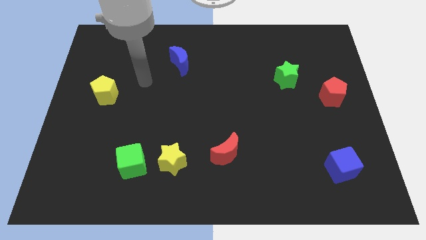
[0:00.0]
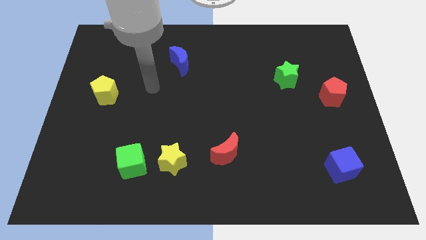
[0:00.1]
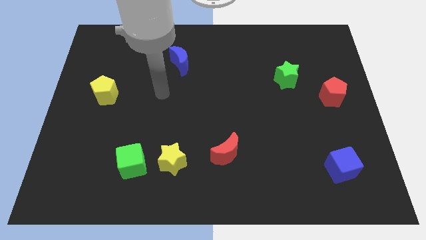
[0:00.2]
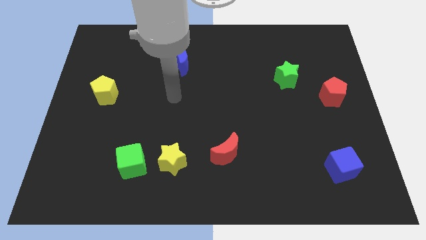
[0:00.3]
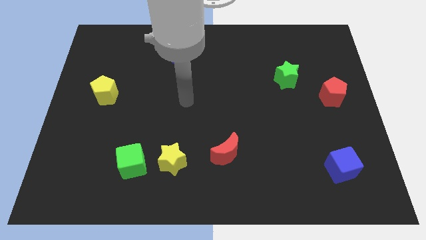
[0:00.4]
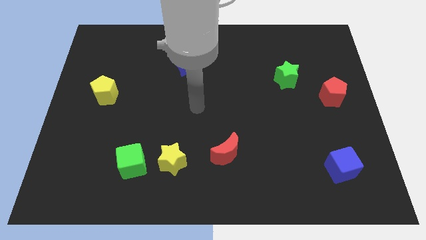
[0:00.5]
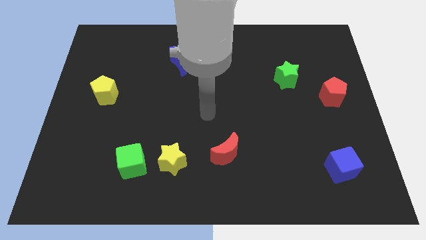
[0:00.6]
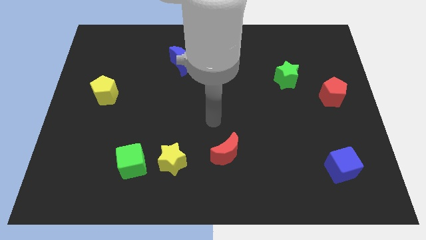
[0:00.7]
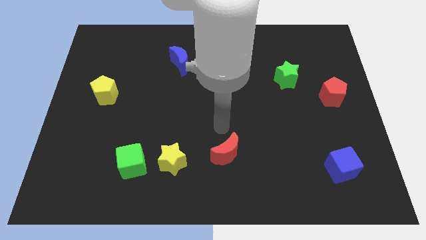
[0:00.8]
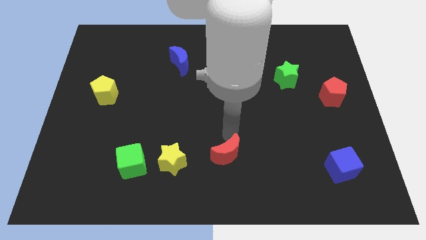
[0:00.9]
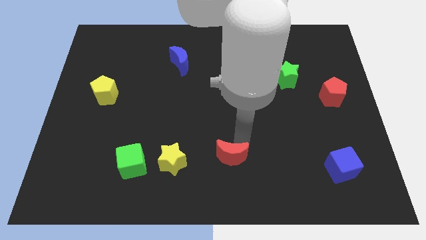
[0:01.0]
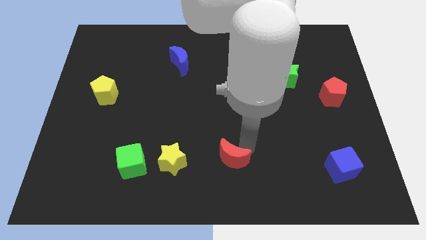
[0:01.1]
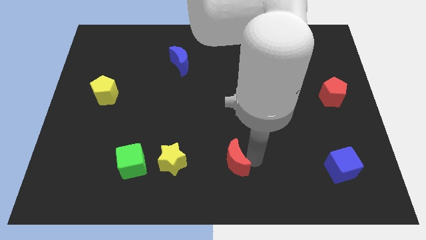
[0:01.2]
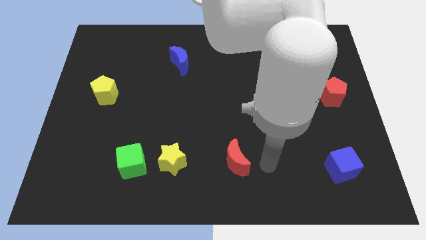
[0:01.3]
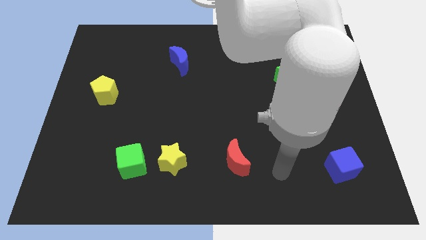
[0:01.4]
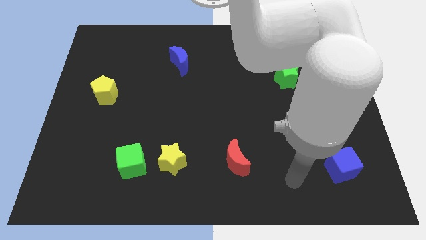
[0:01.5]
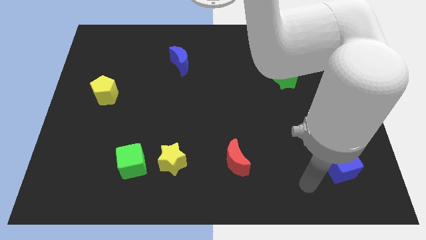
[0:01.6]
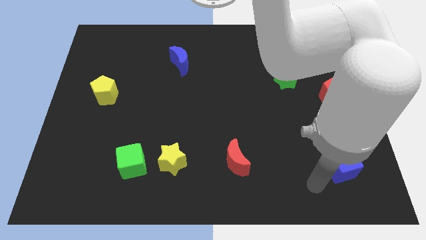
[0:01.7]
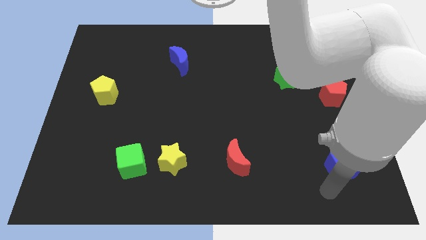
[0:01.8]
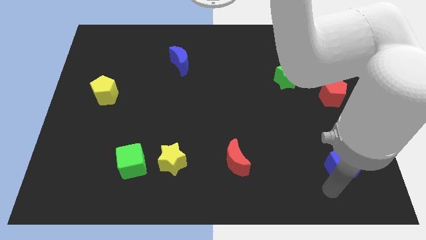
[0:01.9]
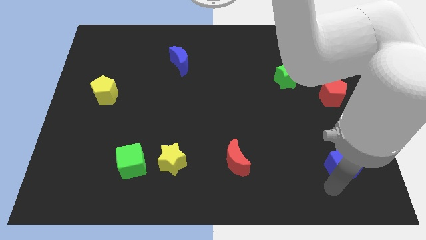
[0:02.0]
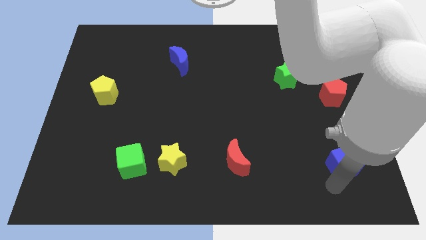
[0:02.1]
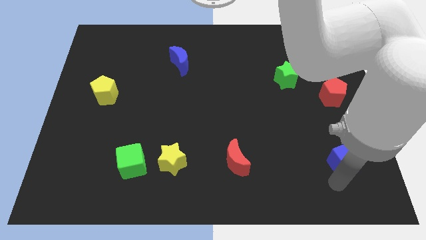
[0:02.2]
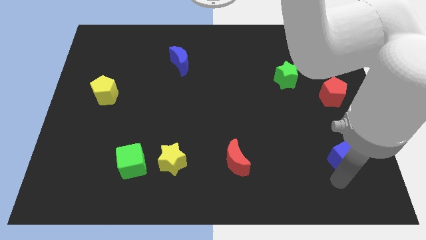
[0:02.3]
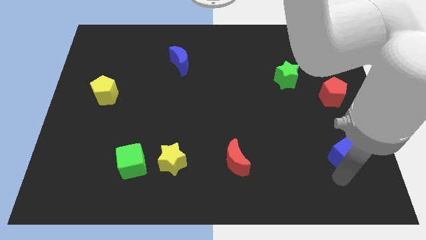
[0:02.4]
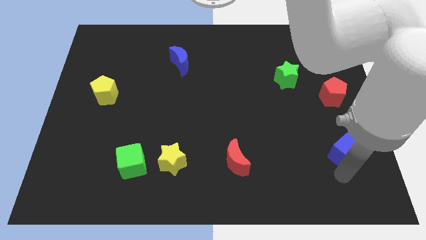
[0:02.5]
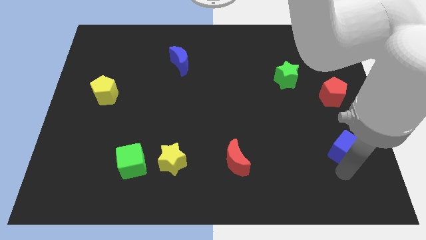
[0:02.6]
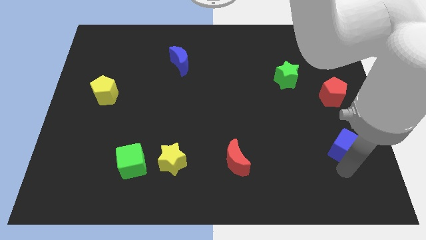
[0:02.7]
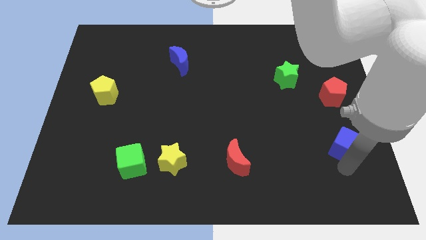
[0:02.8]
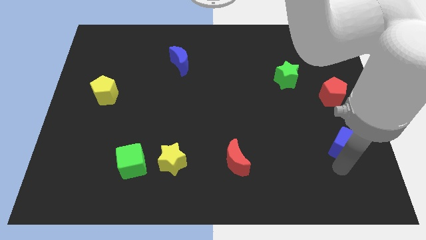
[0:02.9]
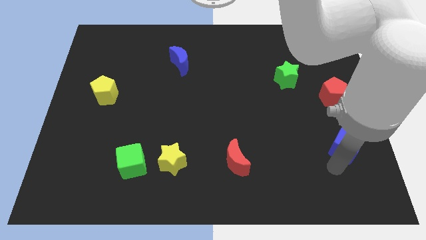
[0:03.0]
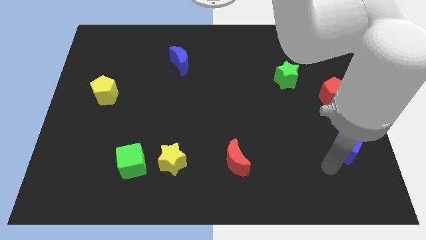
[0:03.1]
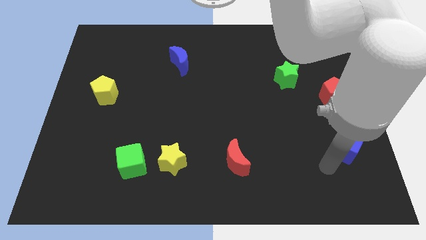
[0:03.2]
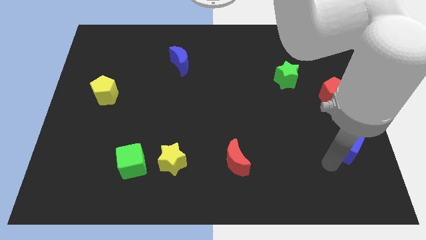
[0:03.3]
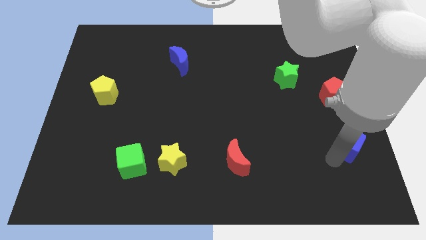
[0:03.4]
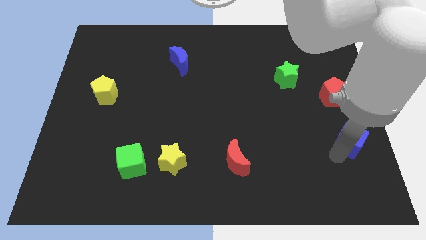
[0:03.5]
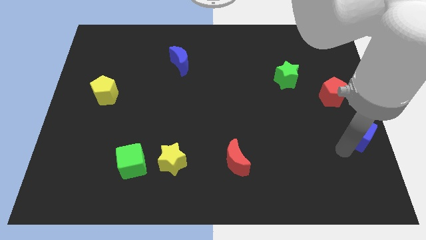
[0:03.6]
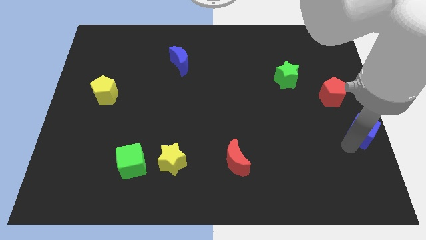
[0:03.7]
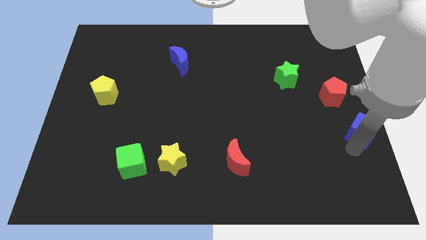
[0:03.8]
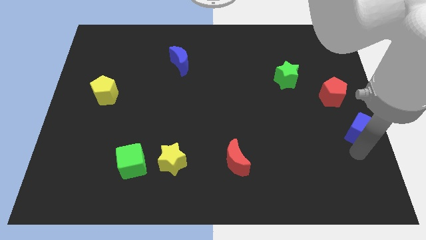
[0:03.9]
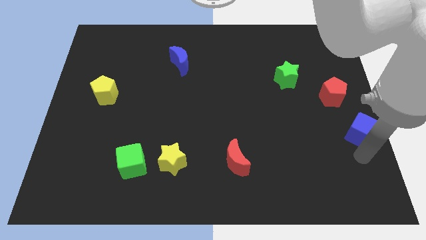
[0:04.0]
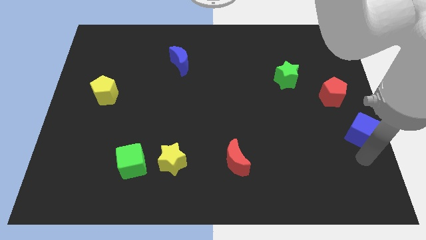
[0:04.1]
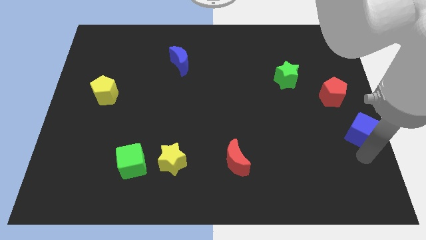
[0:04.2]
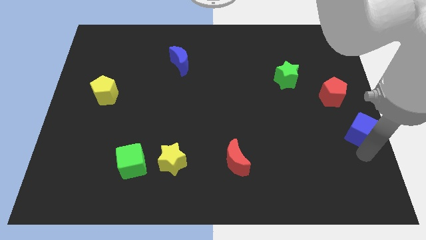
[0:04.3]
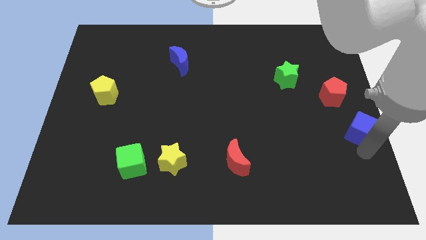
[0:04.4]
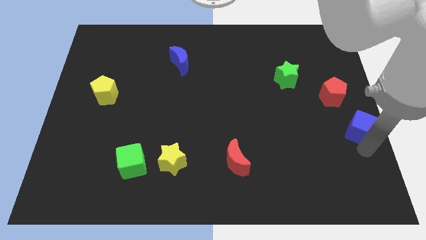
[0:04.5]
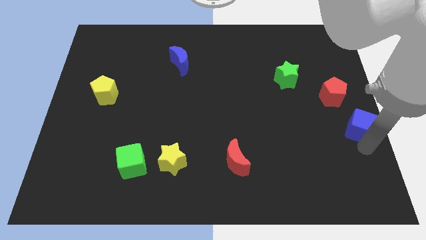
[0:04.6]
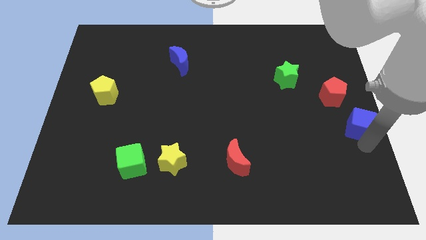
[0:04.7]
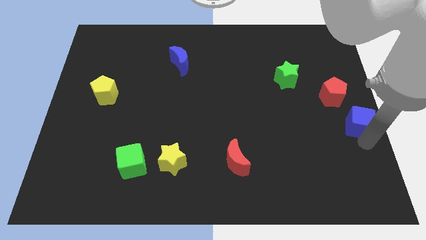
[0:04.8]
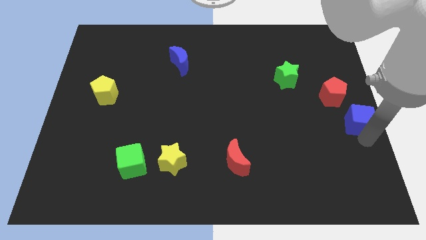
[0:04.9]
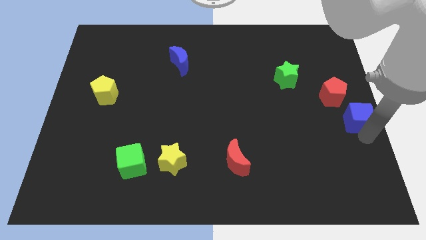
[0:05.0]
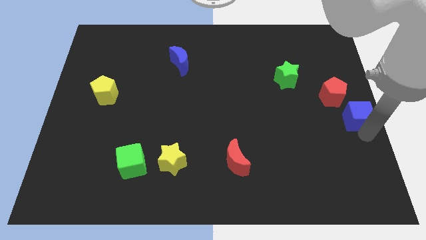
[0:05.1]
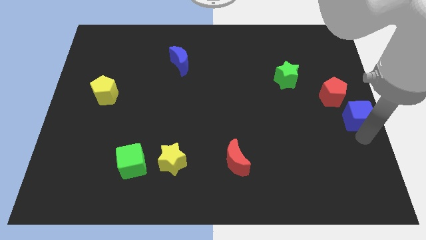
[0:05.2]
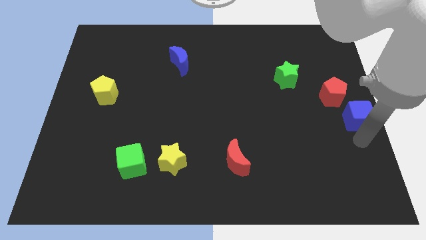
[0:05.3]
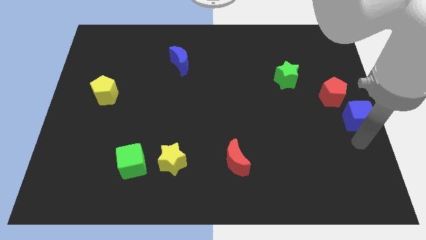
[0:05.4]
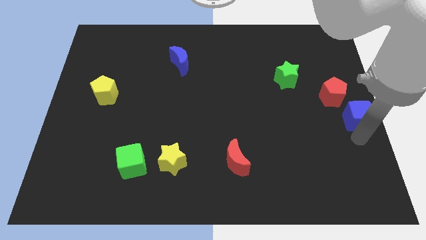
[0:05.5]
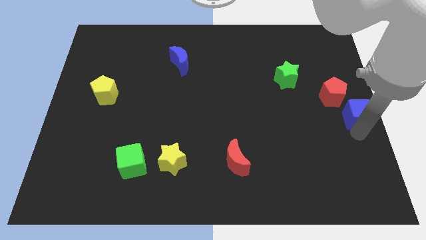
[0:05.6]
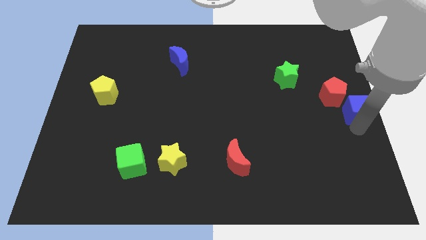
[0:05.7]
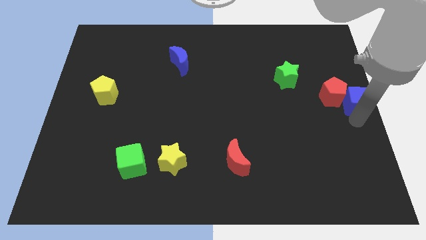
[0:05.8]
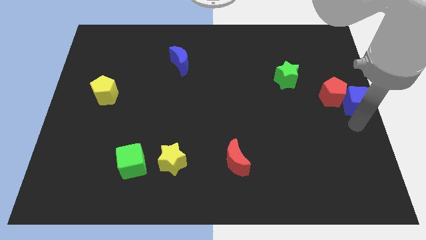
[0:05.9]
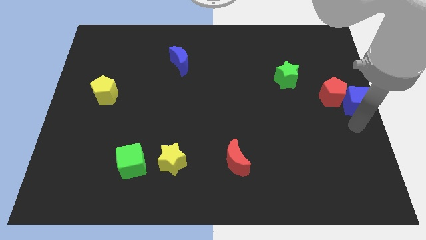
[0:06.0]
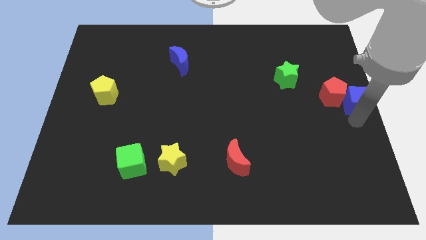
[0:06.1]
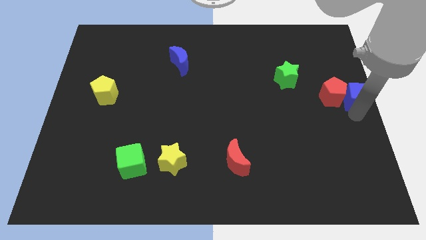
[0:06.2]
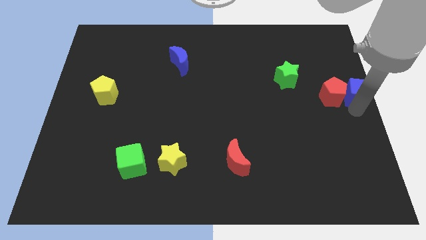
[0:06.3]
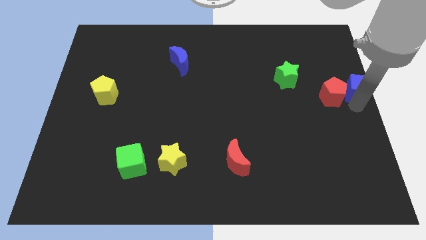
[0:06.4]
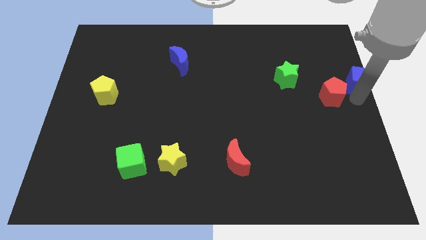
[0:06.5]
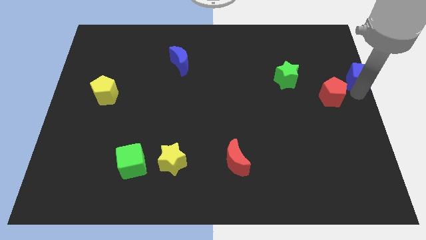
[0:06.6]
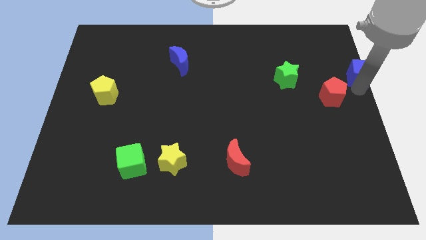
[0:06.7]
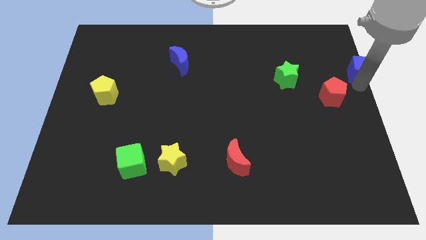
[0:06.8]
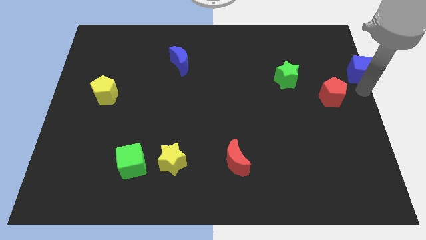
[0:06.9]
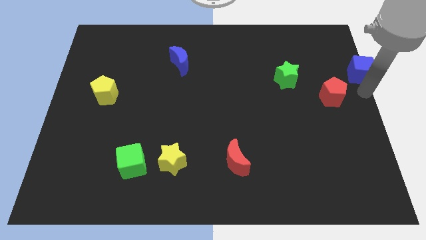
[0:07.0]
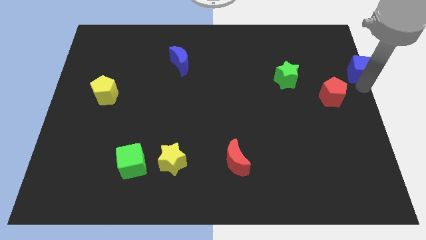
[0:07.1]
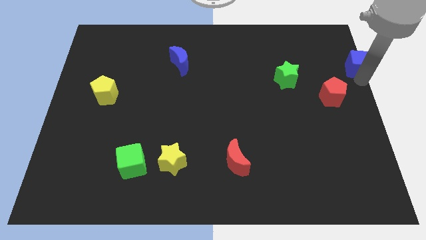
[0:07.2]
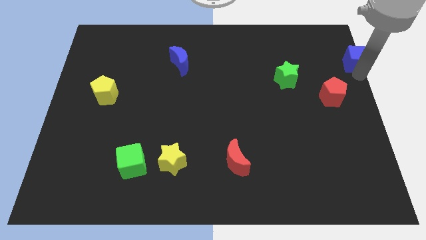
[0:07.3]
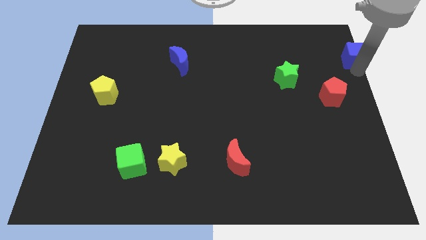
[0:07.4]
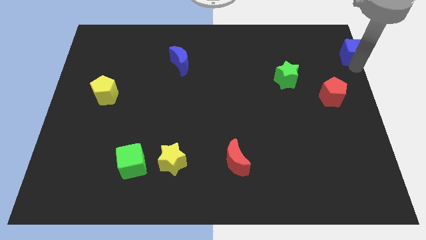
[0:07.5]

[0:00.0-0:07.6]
slide the blue cube to the top right of the board
